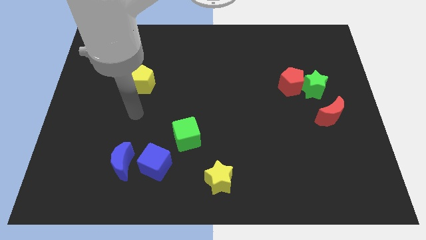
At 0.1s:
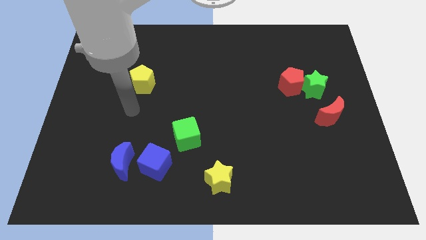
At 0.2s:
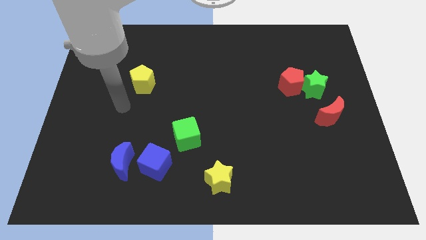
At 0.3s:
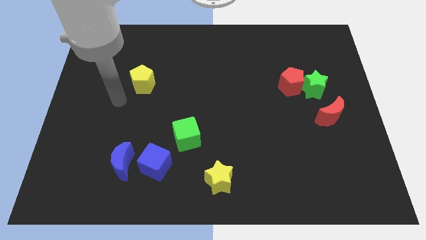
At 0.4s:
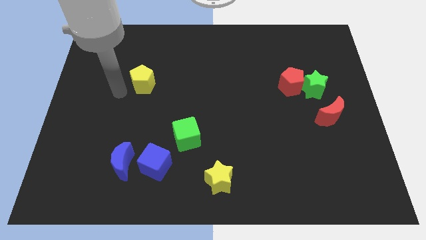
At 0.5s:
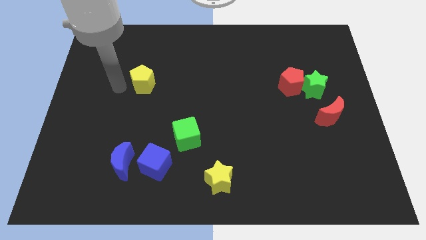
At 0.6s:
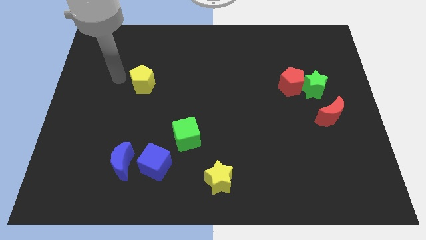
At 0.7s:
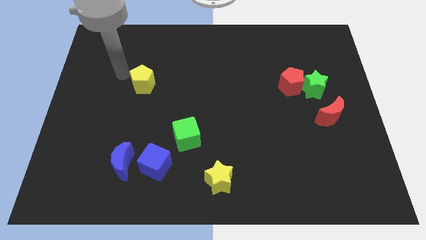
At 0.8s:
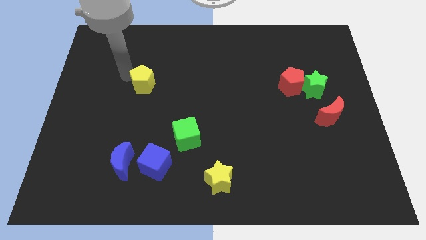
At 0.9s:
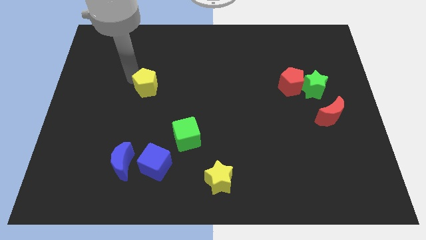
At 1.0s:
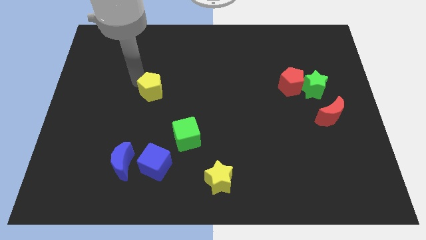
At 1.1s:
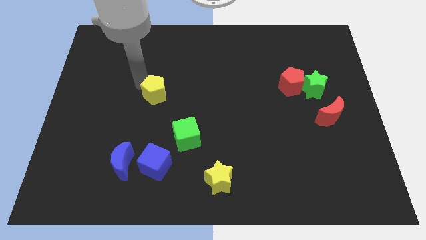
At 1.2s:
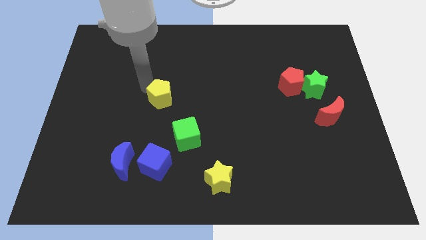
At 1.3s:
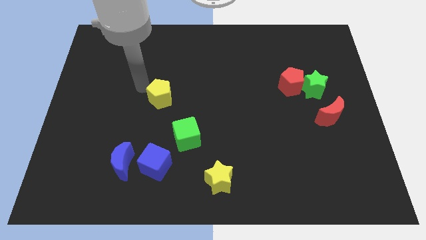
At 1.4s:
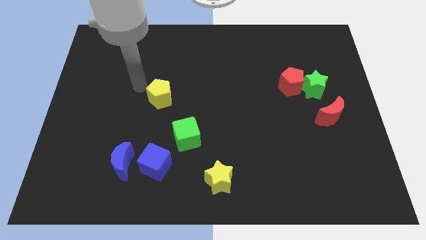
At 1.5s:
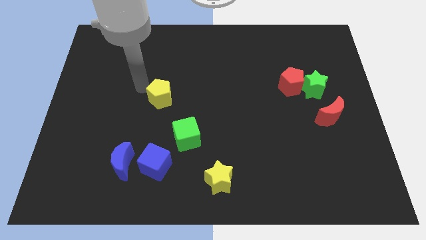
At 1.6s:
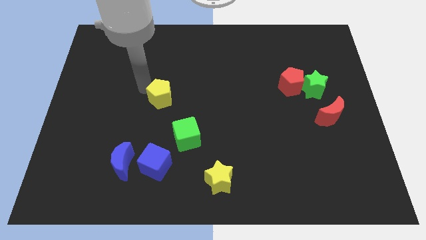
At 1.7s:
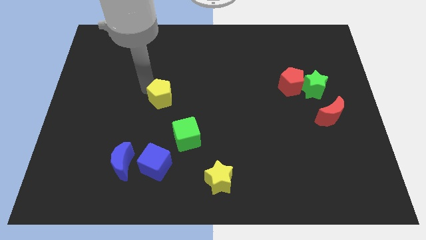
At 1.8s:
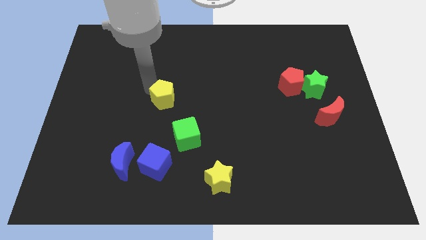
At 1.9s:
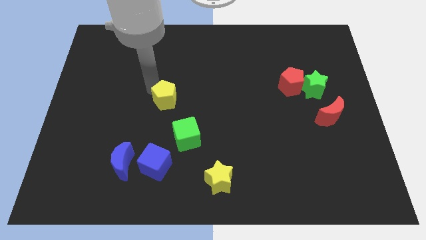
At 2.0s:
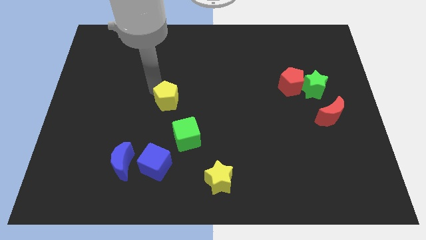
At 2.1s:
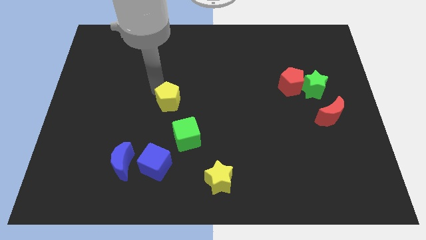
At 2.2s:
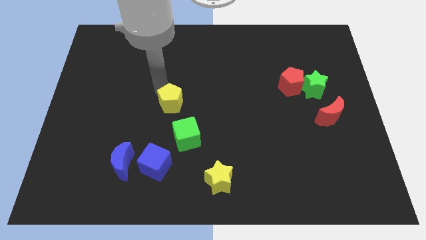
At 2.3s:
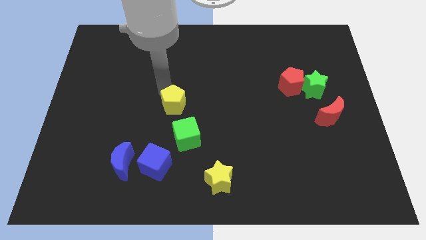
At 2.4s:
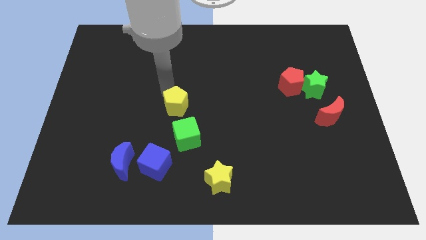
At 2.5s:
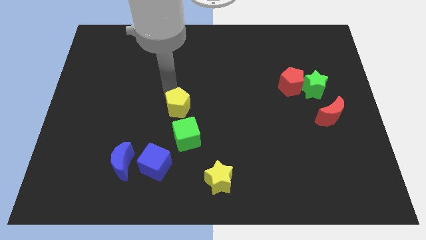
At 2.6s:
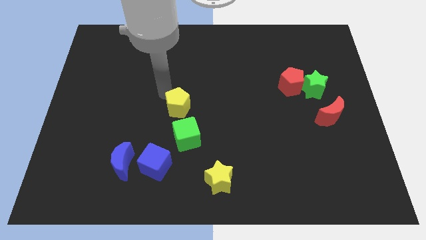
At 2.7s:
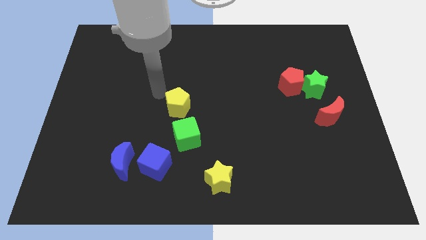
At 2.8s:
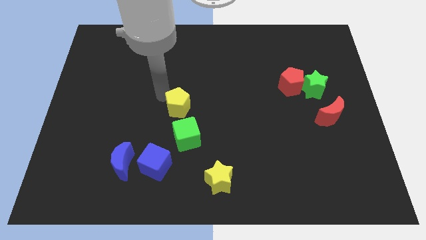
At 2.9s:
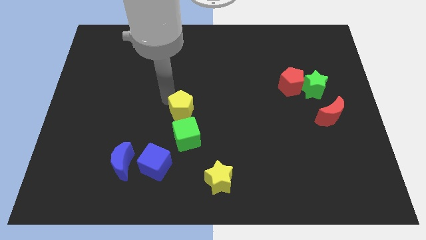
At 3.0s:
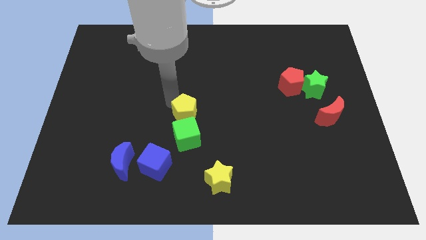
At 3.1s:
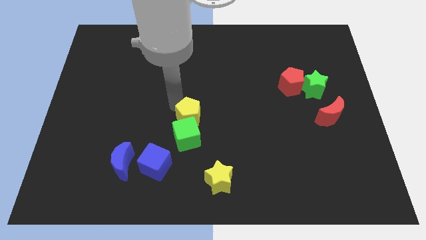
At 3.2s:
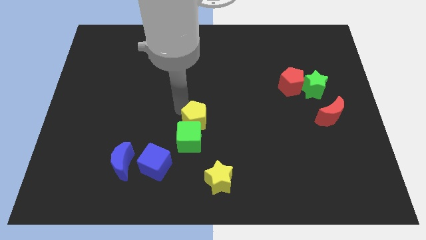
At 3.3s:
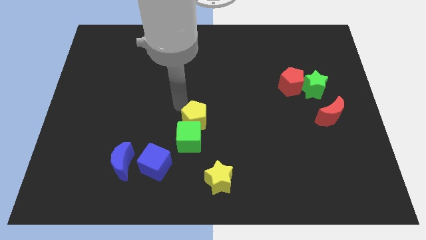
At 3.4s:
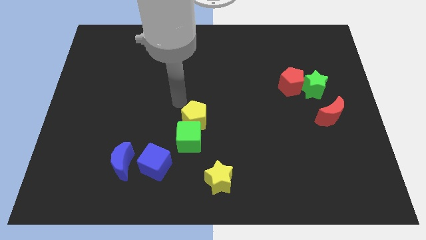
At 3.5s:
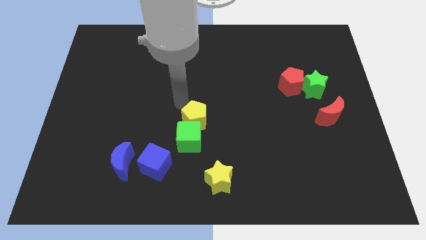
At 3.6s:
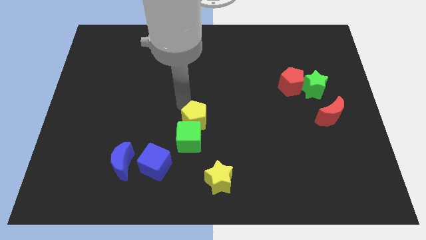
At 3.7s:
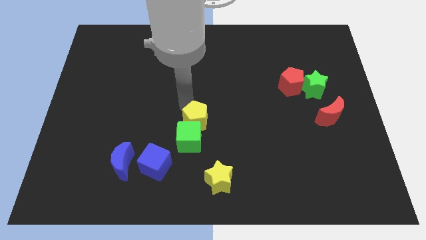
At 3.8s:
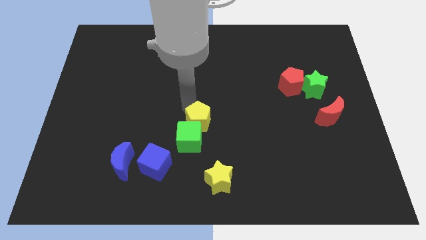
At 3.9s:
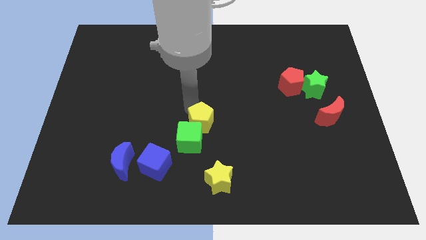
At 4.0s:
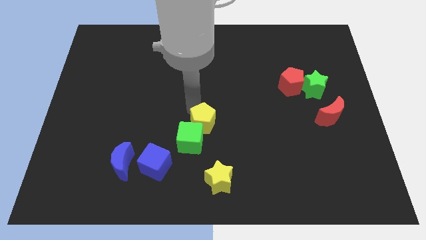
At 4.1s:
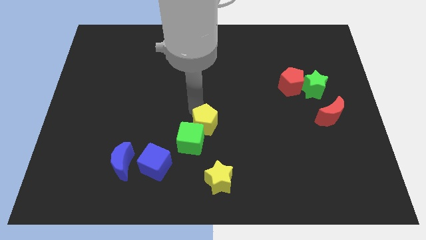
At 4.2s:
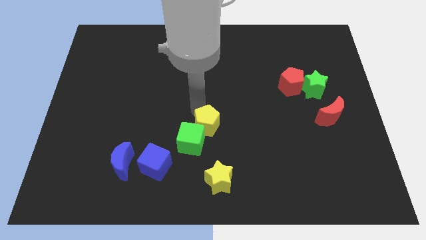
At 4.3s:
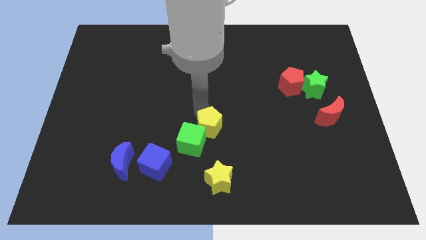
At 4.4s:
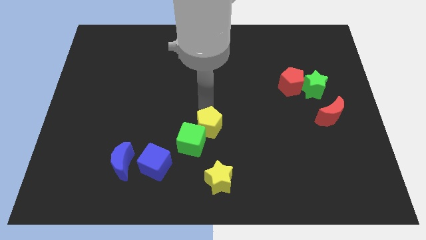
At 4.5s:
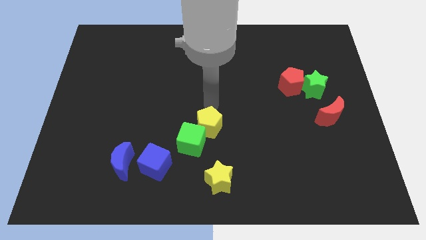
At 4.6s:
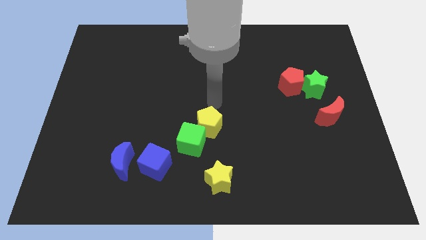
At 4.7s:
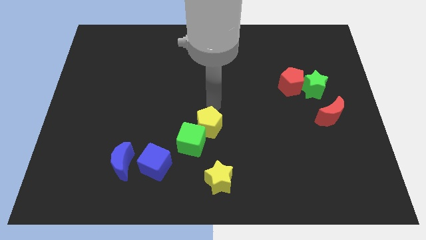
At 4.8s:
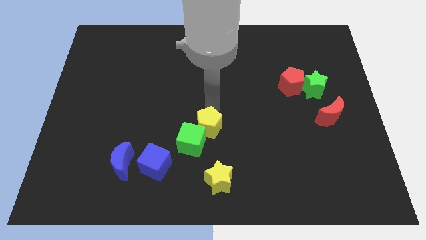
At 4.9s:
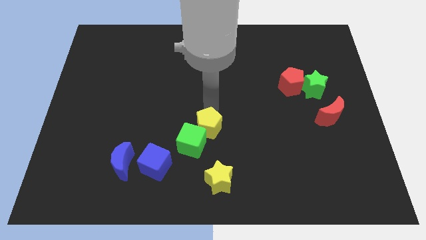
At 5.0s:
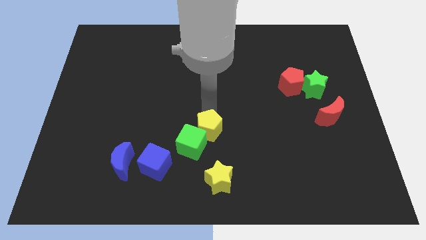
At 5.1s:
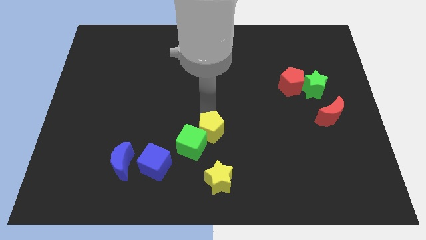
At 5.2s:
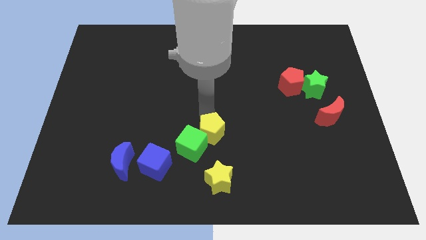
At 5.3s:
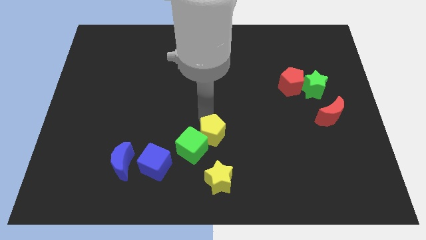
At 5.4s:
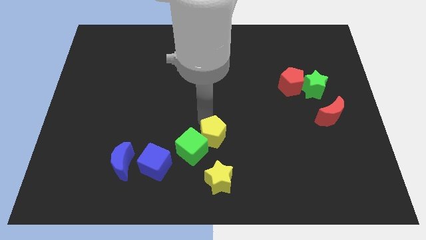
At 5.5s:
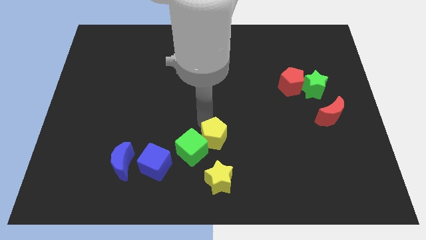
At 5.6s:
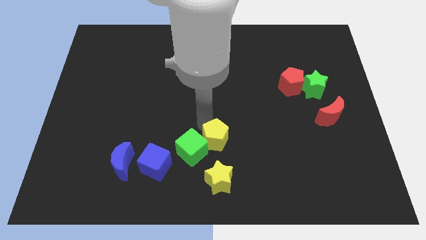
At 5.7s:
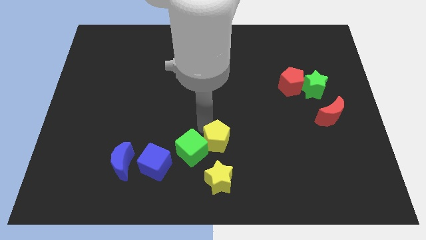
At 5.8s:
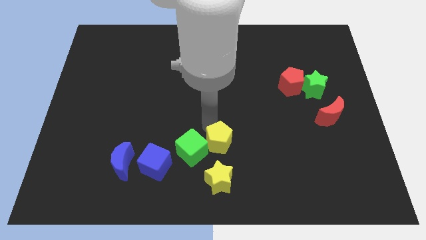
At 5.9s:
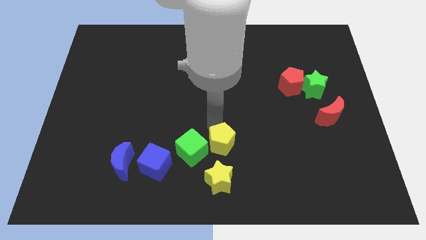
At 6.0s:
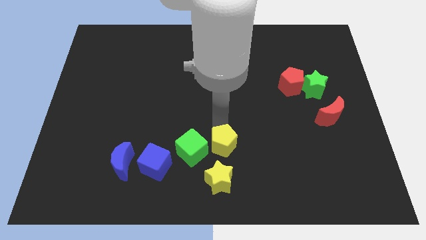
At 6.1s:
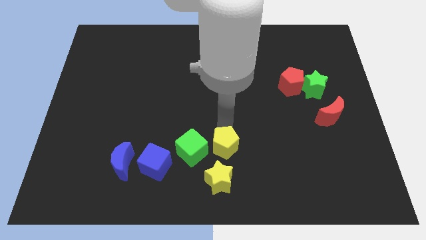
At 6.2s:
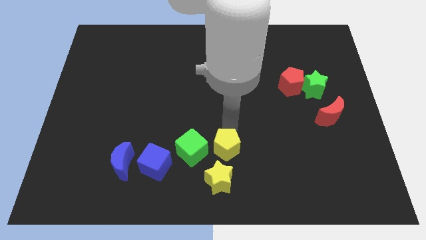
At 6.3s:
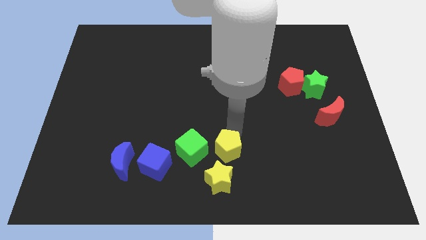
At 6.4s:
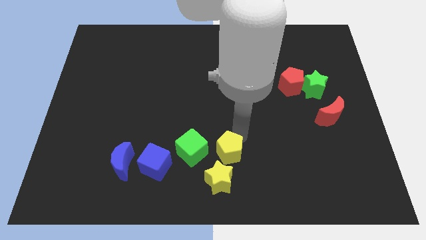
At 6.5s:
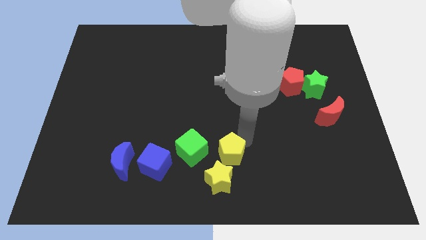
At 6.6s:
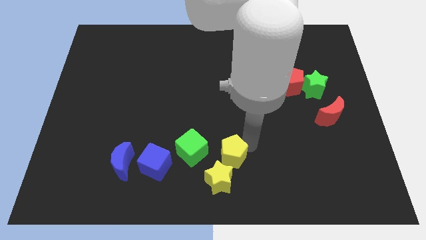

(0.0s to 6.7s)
push the yellow pentagon to the bottom side
